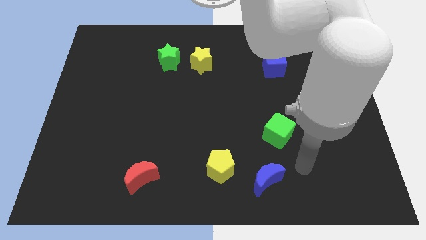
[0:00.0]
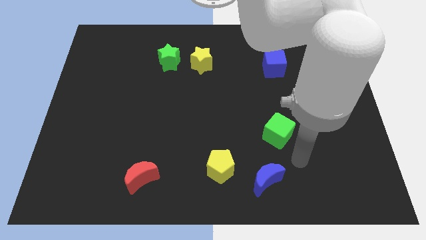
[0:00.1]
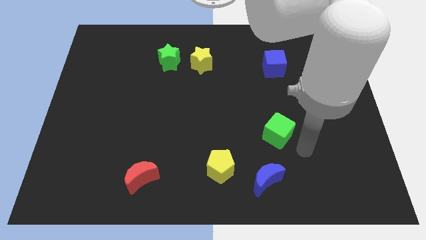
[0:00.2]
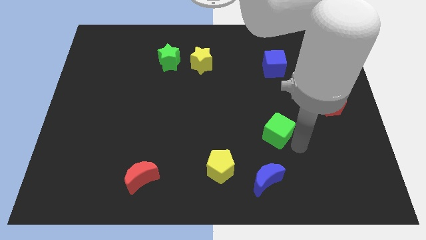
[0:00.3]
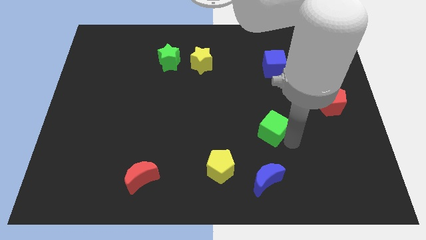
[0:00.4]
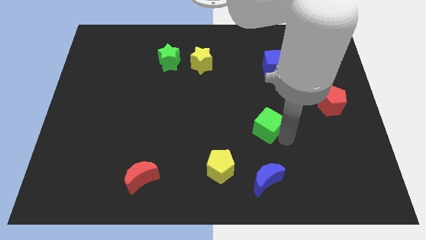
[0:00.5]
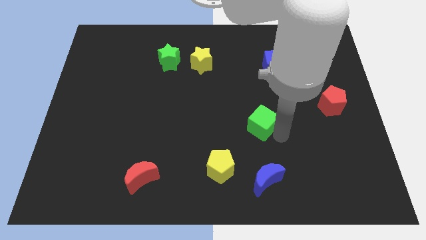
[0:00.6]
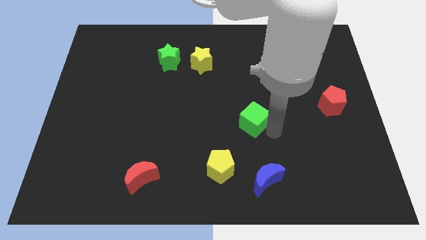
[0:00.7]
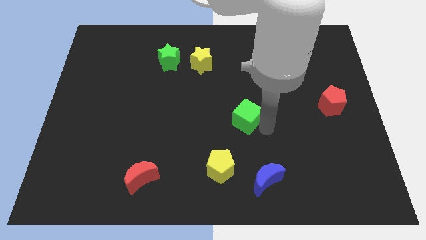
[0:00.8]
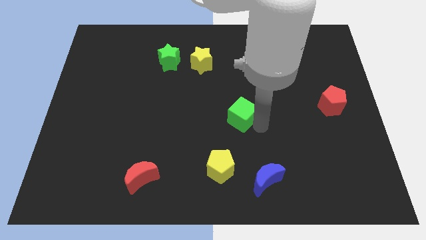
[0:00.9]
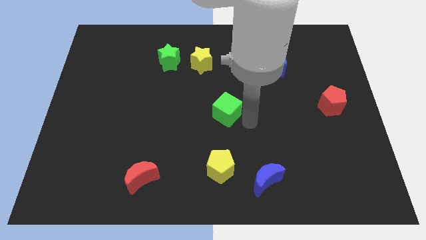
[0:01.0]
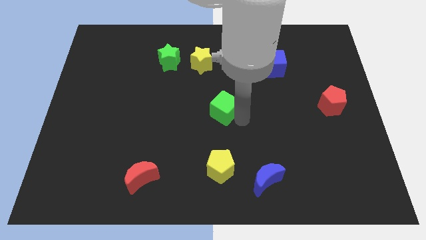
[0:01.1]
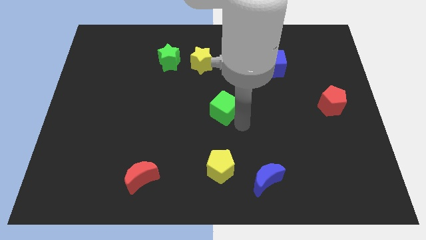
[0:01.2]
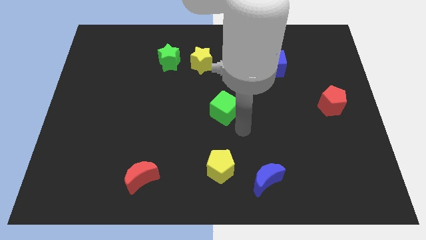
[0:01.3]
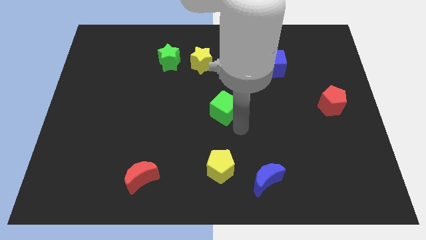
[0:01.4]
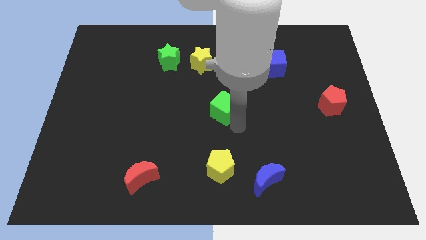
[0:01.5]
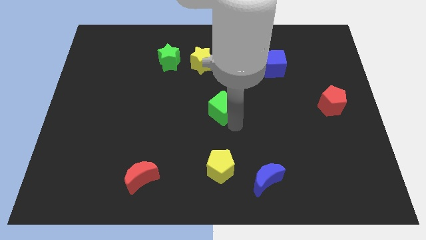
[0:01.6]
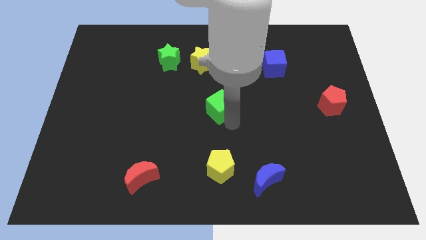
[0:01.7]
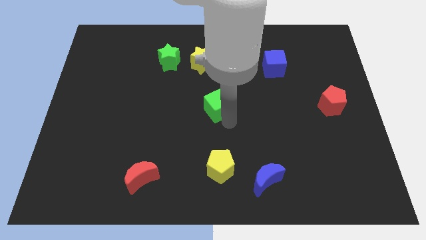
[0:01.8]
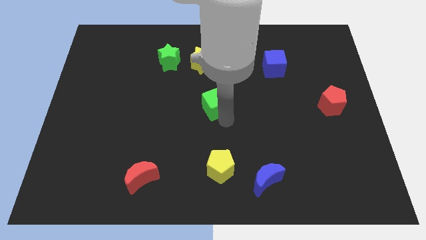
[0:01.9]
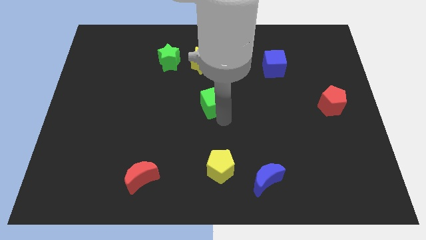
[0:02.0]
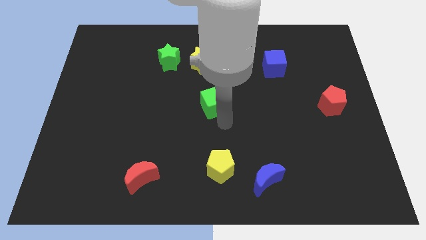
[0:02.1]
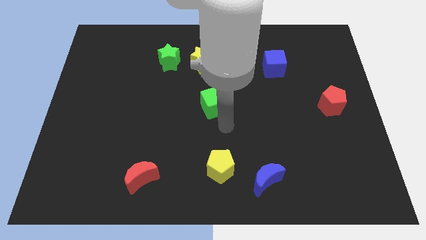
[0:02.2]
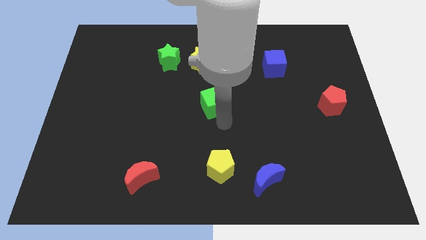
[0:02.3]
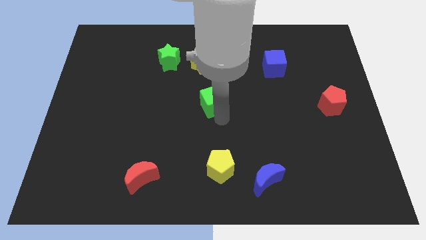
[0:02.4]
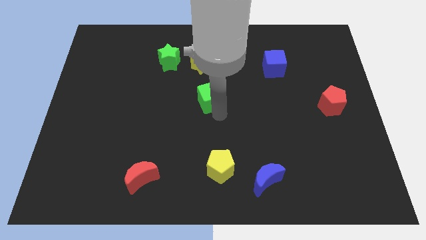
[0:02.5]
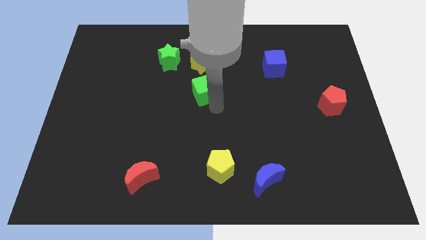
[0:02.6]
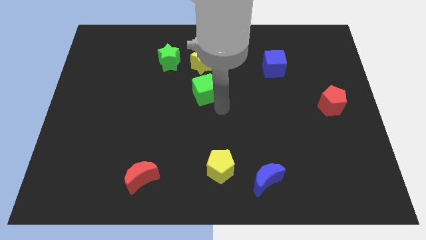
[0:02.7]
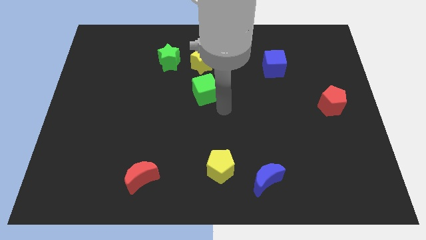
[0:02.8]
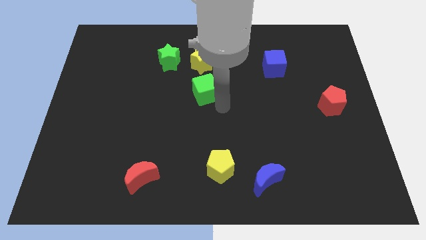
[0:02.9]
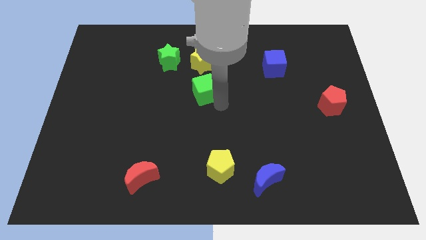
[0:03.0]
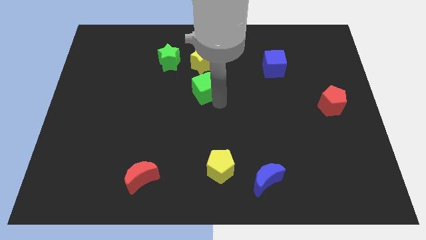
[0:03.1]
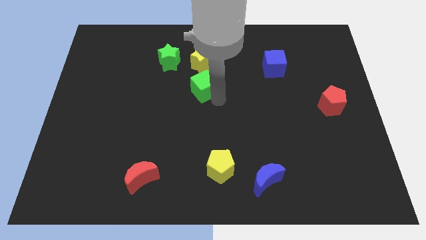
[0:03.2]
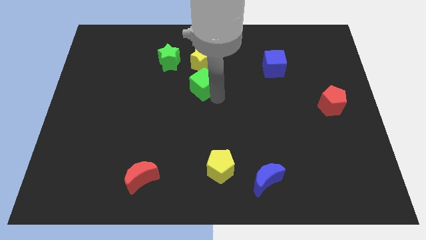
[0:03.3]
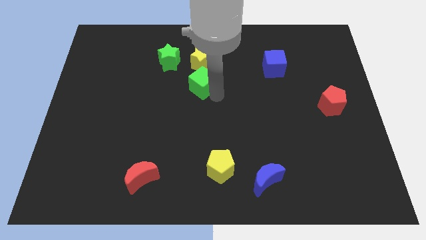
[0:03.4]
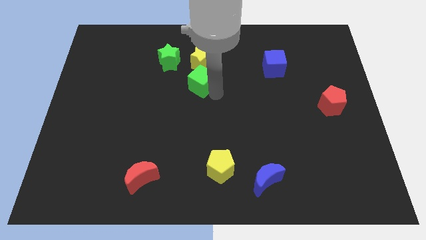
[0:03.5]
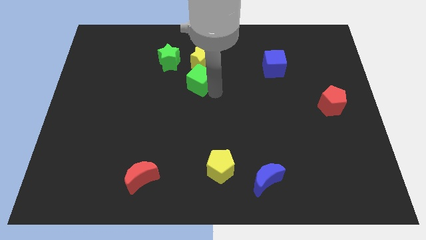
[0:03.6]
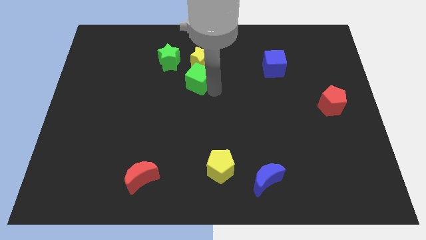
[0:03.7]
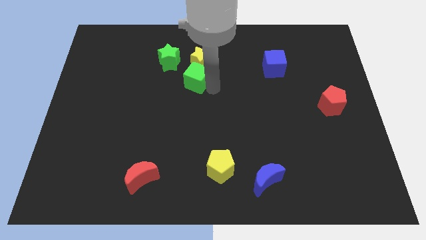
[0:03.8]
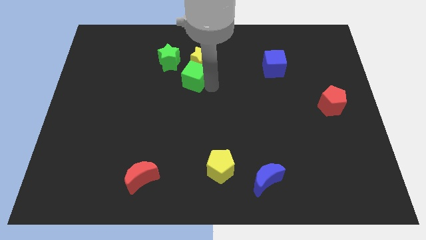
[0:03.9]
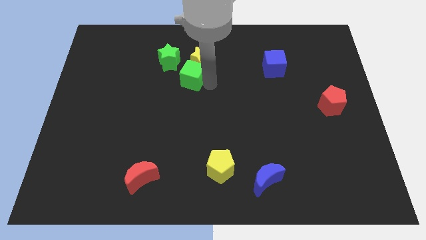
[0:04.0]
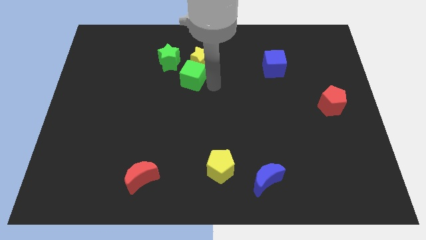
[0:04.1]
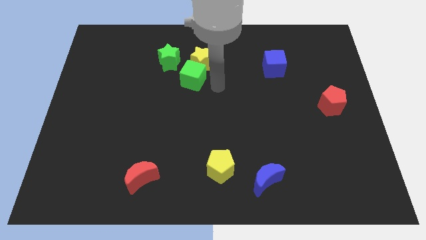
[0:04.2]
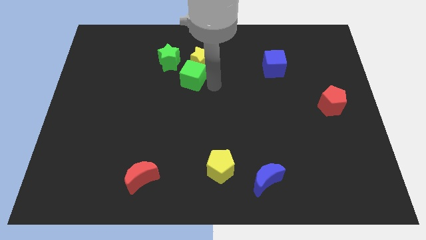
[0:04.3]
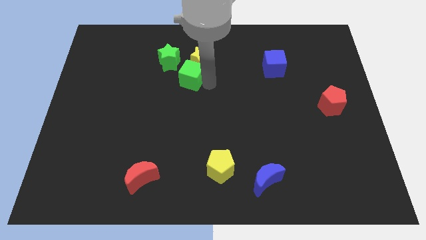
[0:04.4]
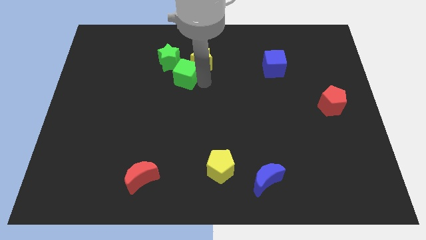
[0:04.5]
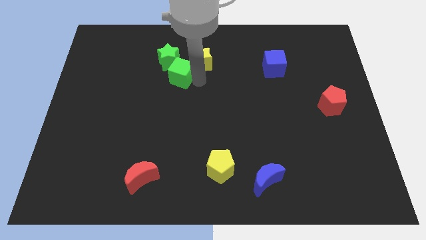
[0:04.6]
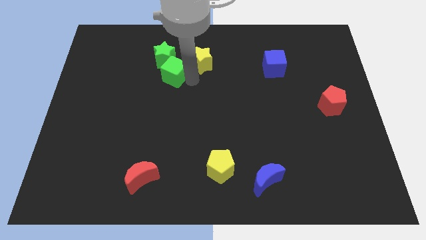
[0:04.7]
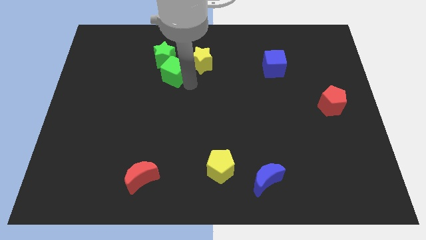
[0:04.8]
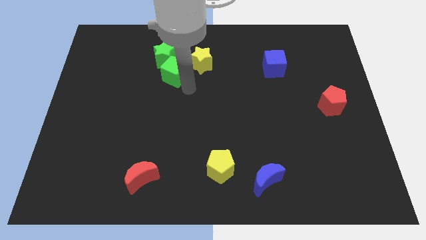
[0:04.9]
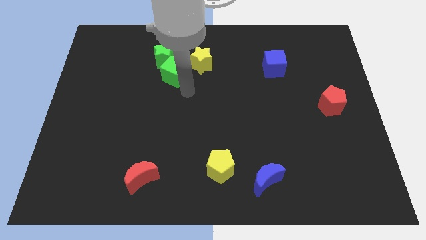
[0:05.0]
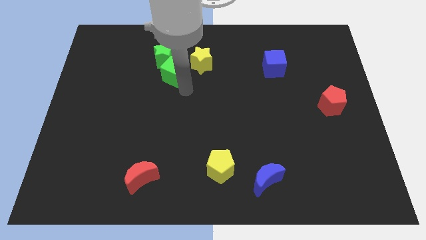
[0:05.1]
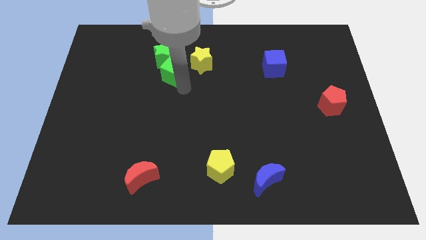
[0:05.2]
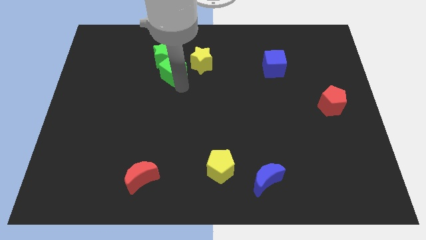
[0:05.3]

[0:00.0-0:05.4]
move the green cube to the green star

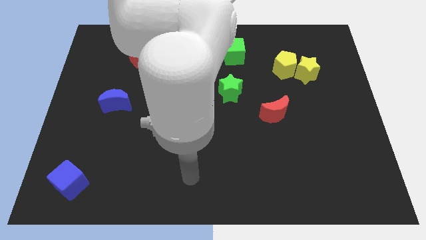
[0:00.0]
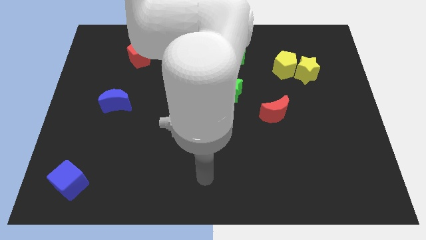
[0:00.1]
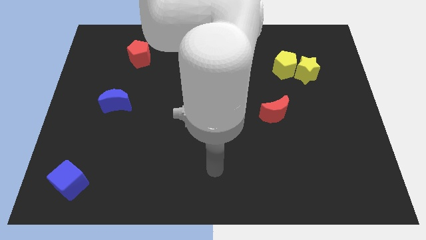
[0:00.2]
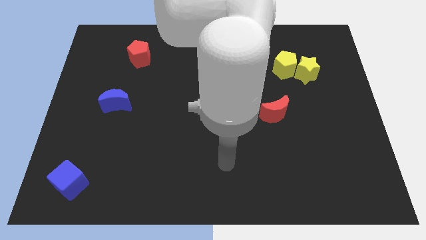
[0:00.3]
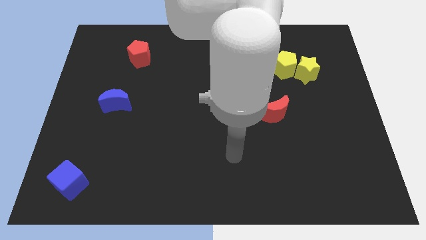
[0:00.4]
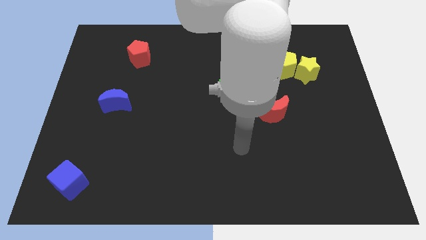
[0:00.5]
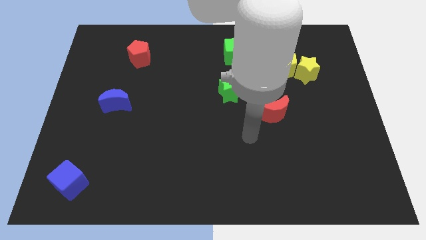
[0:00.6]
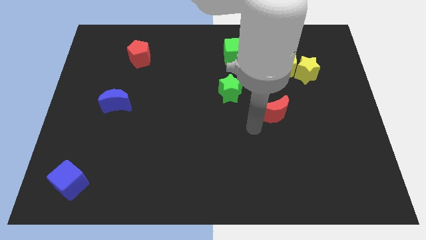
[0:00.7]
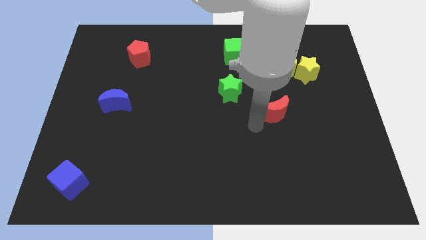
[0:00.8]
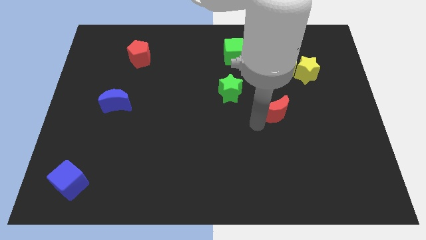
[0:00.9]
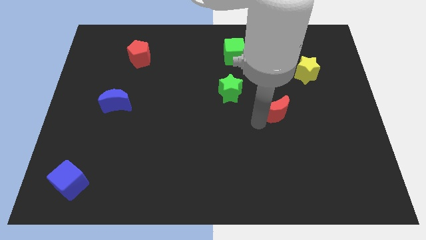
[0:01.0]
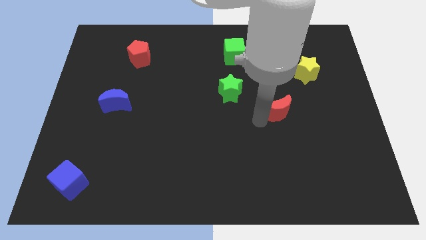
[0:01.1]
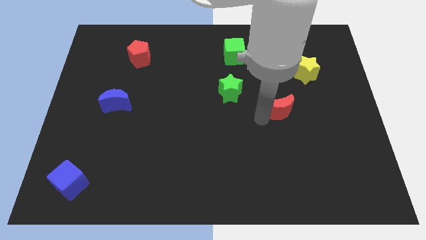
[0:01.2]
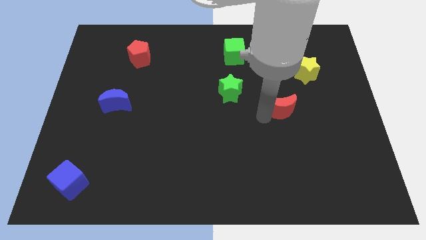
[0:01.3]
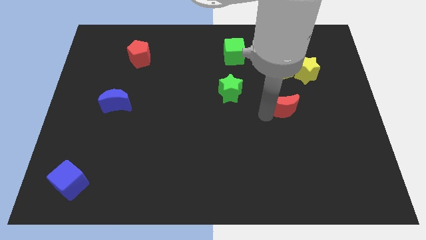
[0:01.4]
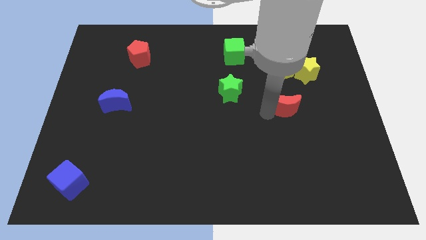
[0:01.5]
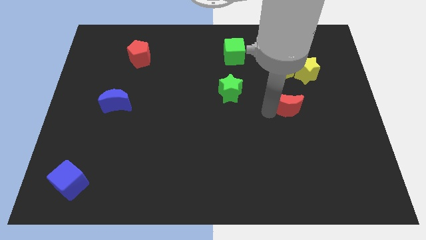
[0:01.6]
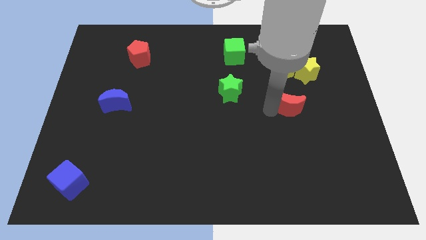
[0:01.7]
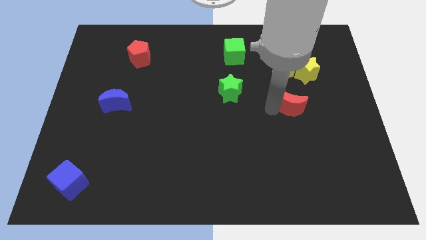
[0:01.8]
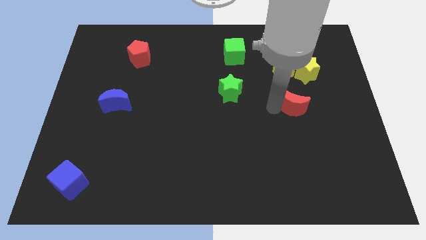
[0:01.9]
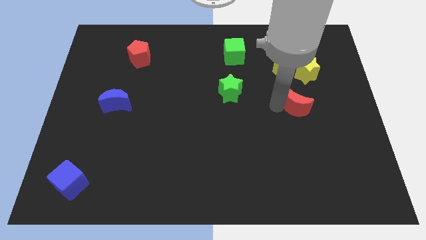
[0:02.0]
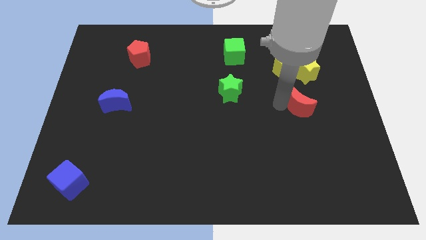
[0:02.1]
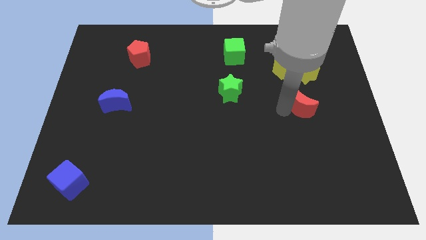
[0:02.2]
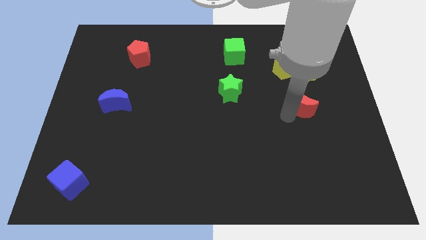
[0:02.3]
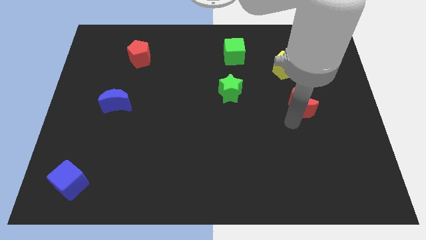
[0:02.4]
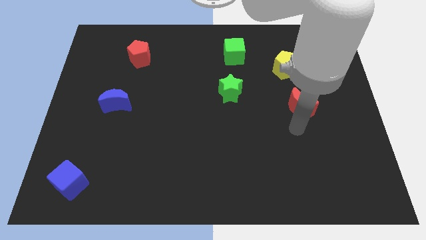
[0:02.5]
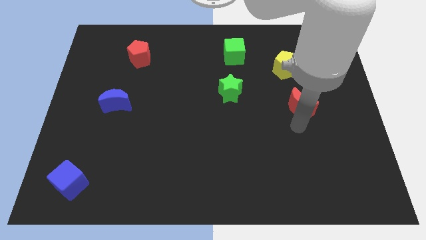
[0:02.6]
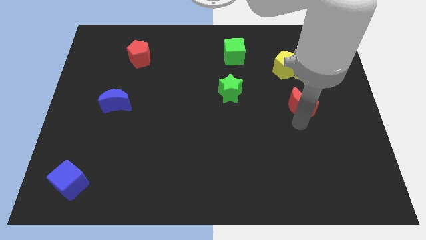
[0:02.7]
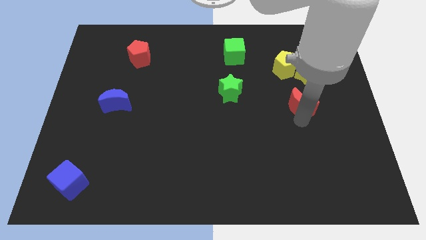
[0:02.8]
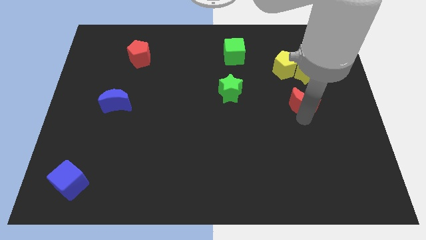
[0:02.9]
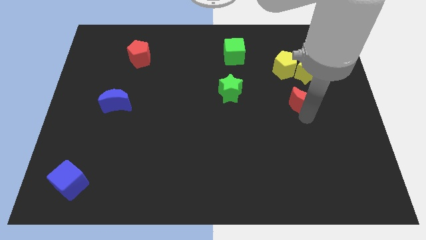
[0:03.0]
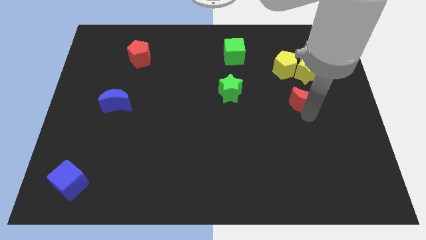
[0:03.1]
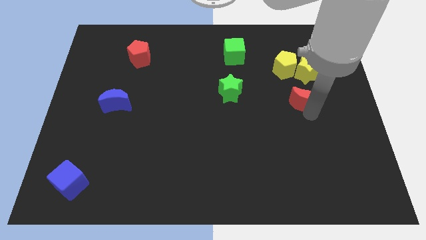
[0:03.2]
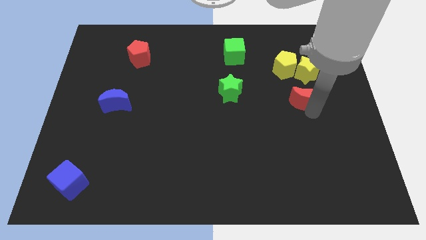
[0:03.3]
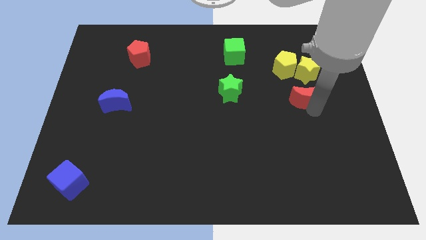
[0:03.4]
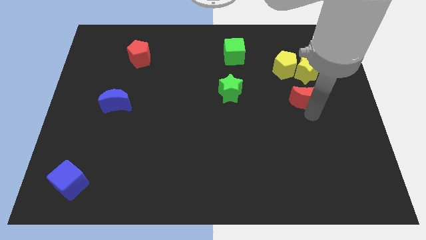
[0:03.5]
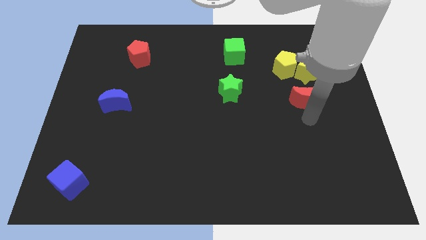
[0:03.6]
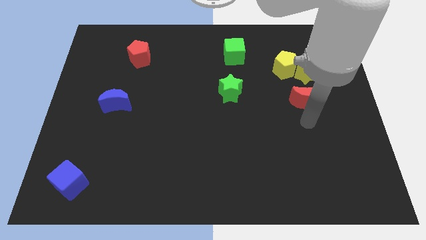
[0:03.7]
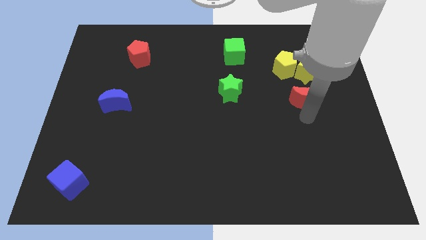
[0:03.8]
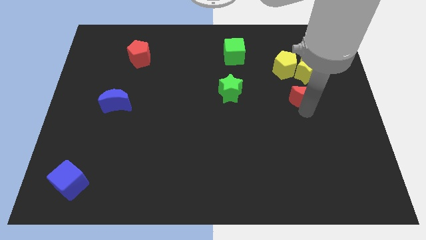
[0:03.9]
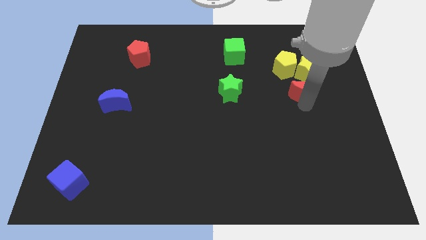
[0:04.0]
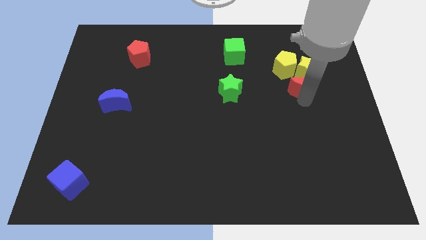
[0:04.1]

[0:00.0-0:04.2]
put the red moon next to the yellow star
